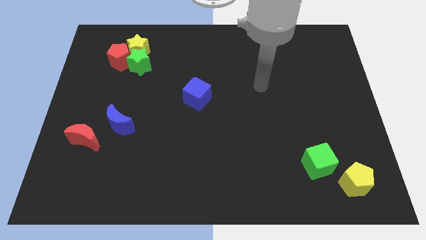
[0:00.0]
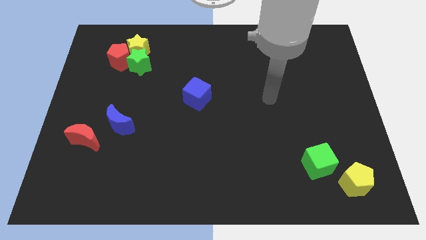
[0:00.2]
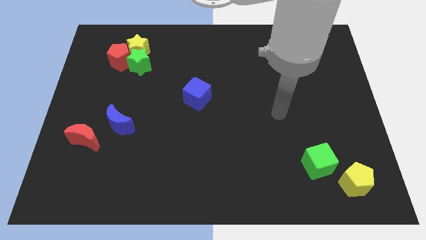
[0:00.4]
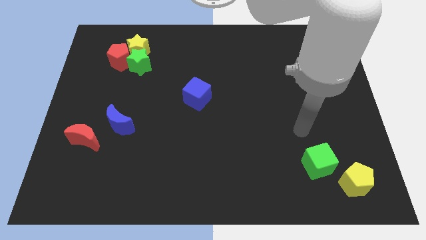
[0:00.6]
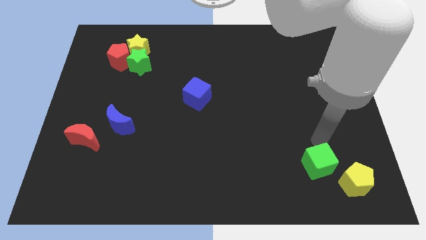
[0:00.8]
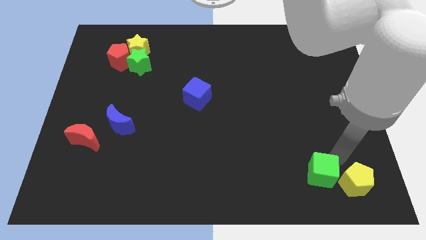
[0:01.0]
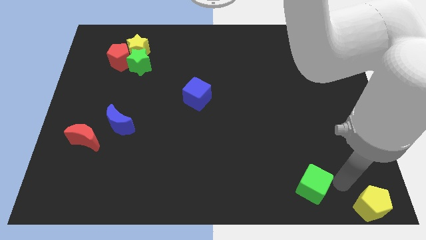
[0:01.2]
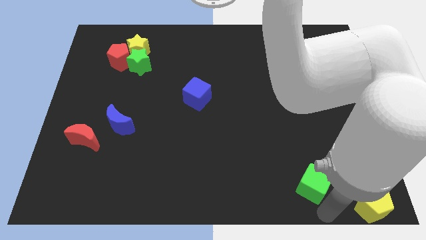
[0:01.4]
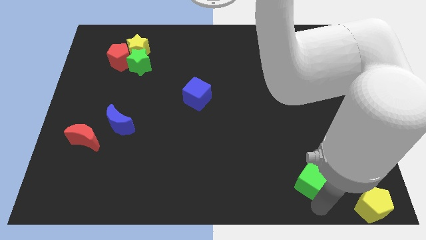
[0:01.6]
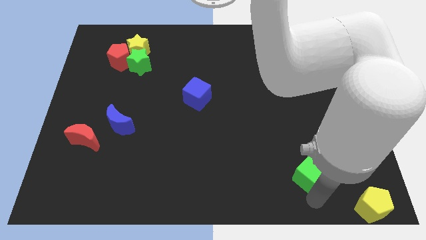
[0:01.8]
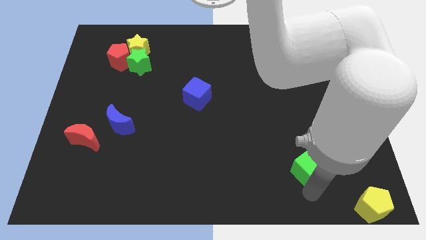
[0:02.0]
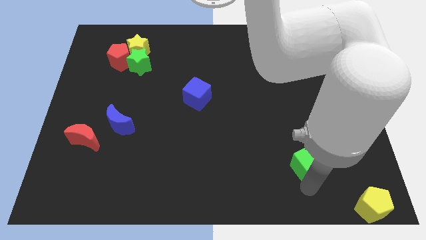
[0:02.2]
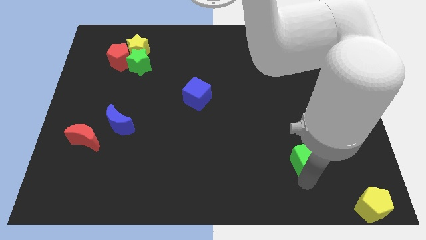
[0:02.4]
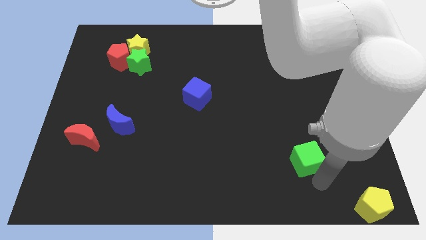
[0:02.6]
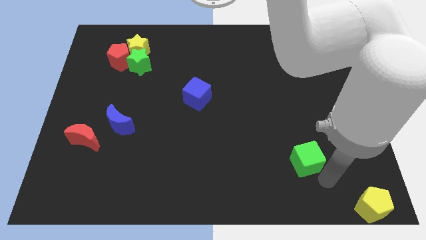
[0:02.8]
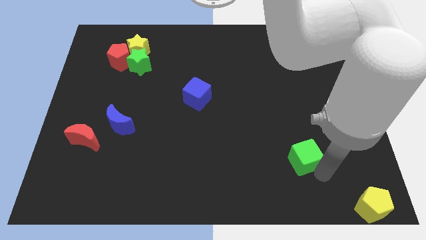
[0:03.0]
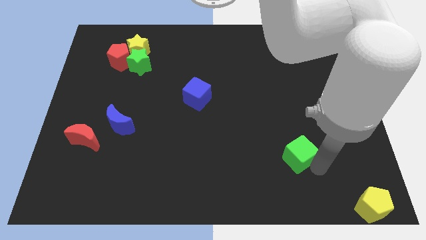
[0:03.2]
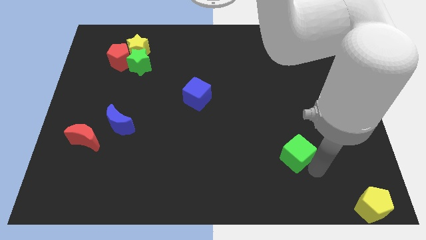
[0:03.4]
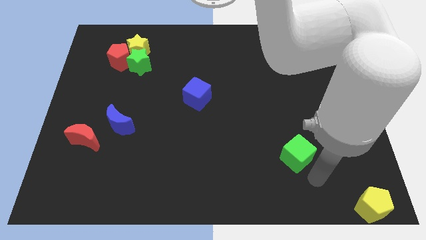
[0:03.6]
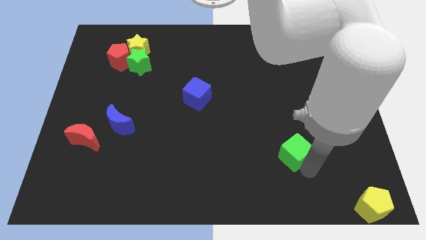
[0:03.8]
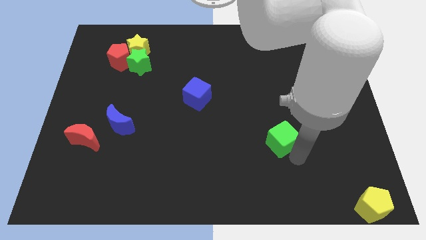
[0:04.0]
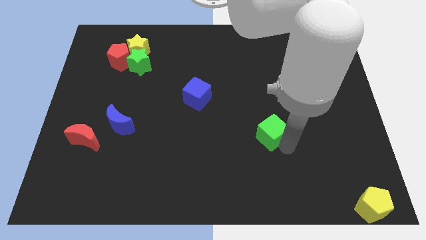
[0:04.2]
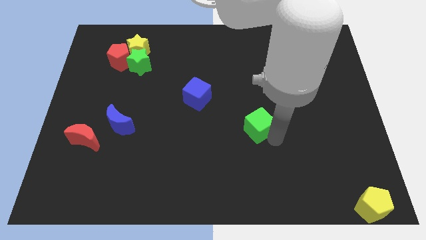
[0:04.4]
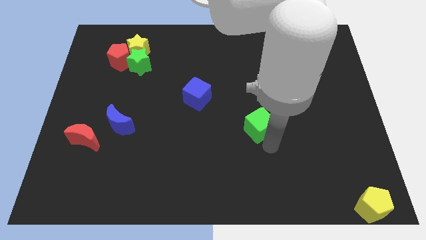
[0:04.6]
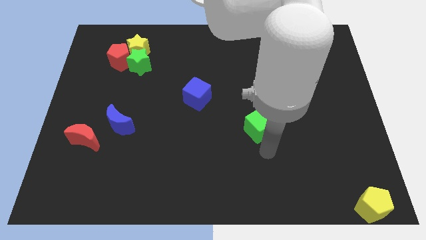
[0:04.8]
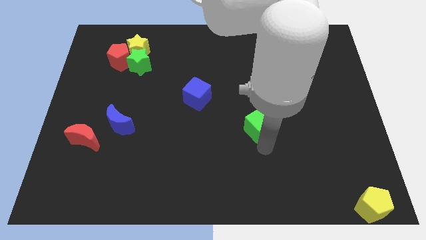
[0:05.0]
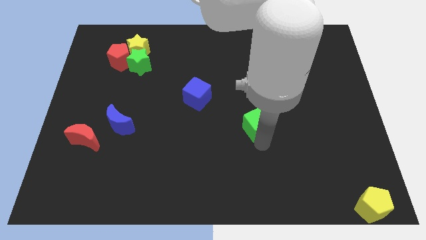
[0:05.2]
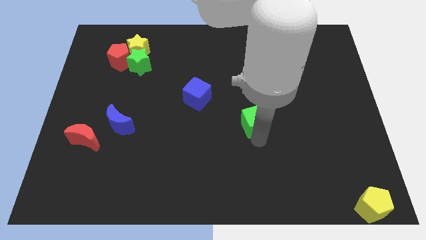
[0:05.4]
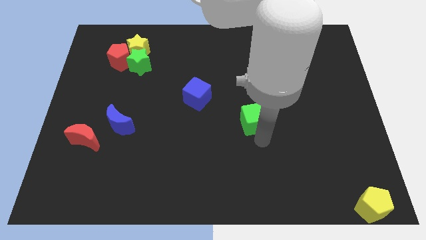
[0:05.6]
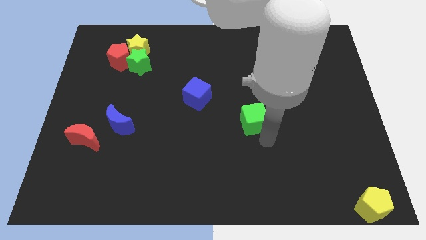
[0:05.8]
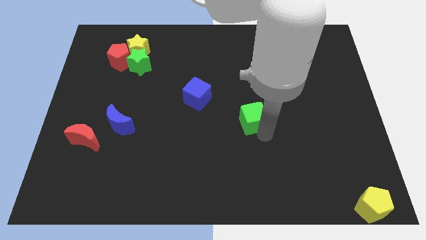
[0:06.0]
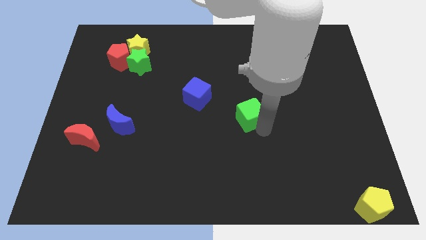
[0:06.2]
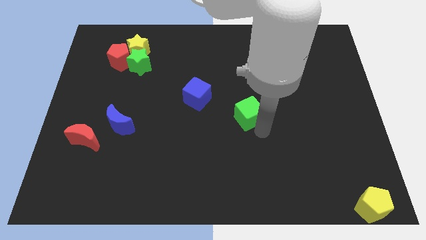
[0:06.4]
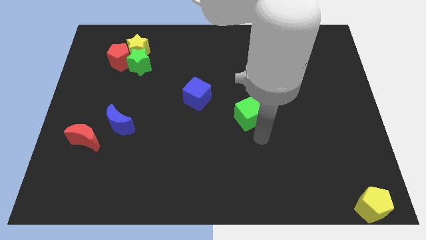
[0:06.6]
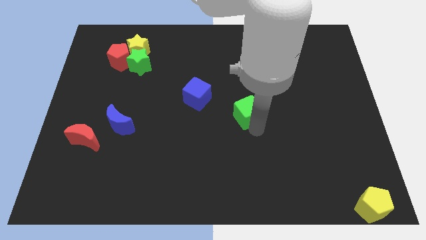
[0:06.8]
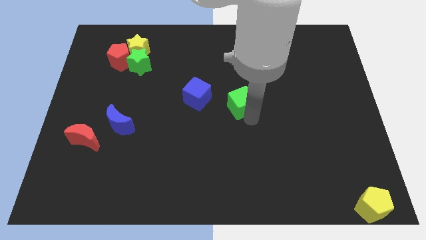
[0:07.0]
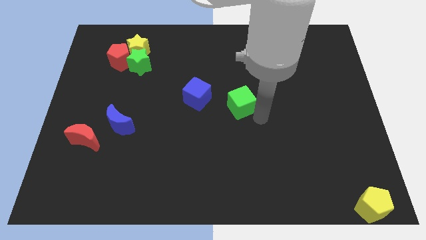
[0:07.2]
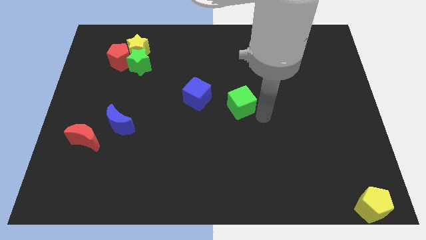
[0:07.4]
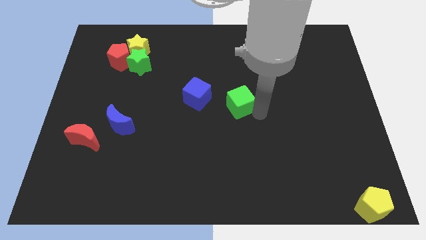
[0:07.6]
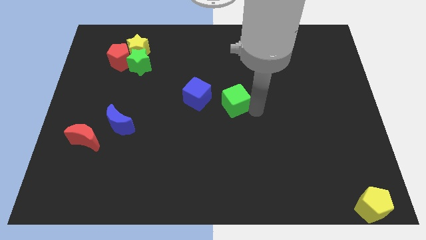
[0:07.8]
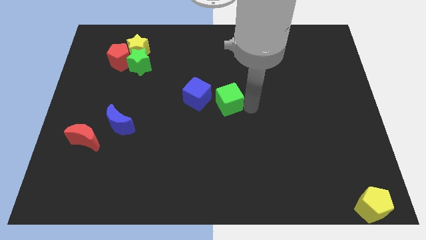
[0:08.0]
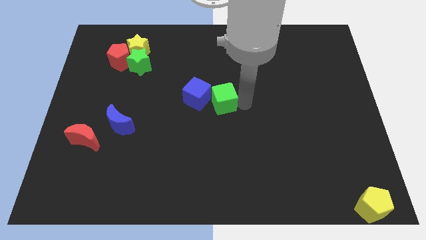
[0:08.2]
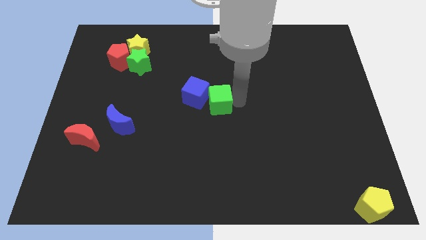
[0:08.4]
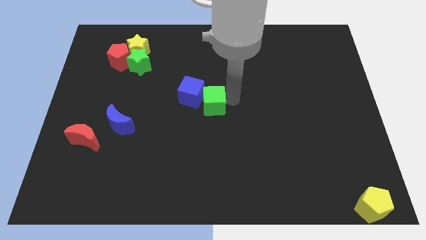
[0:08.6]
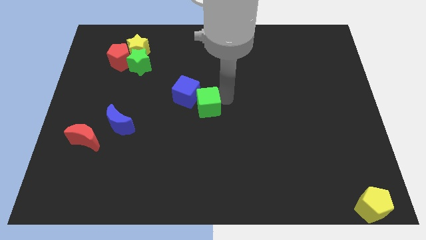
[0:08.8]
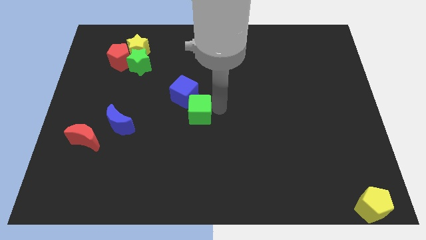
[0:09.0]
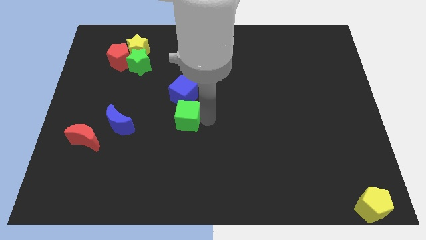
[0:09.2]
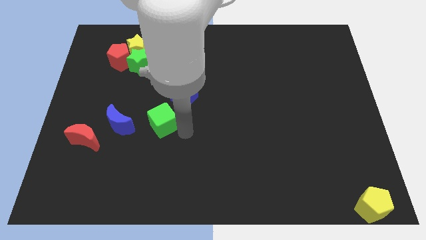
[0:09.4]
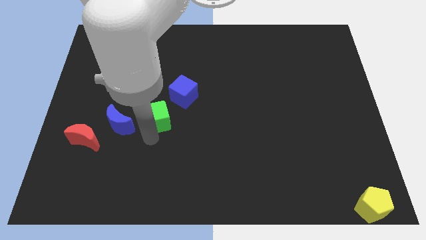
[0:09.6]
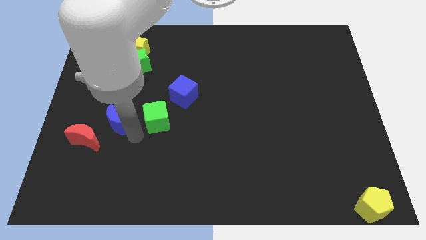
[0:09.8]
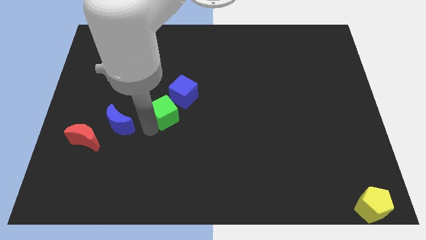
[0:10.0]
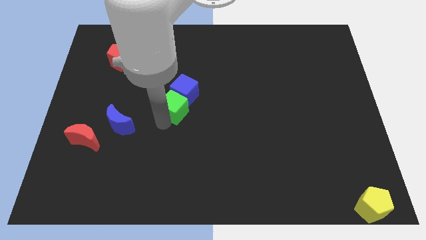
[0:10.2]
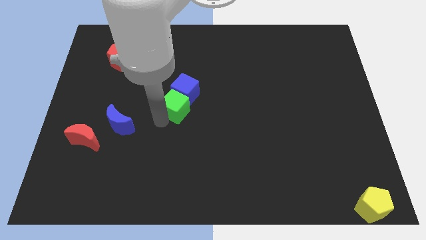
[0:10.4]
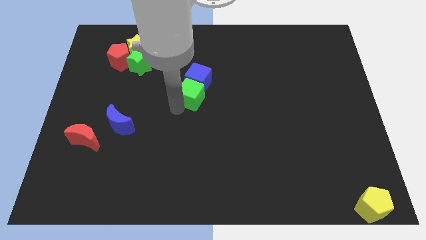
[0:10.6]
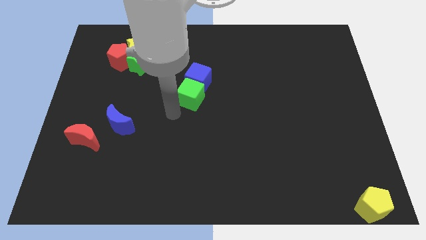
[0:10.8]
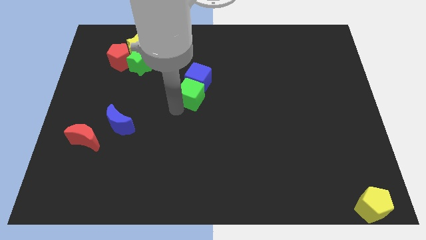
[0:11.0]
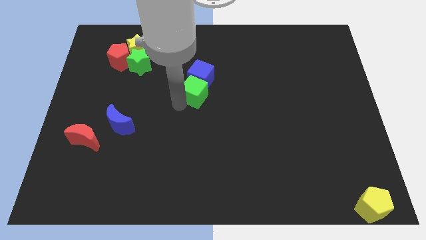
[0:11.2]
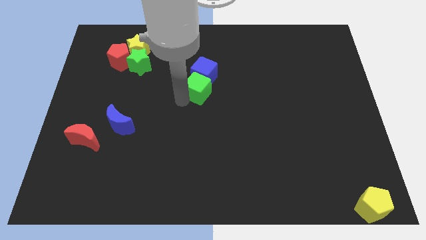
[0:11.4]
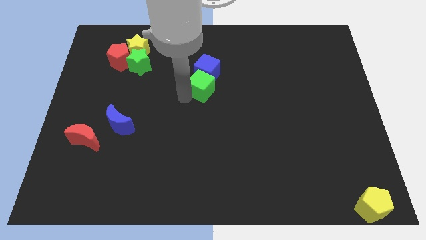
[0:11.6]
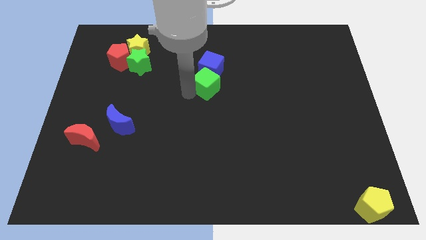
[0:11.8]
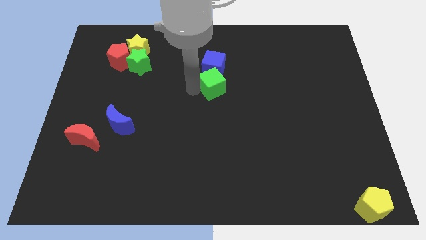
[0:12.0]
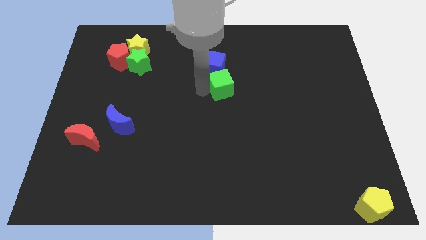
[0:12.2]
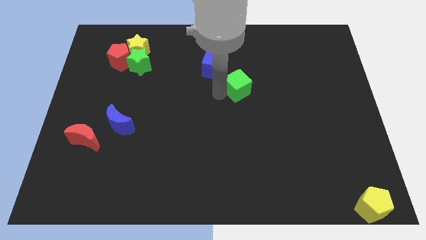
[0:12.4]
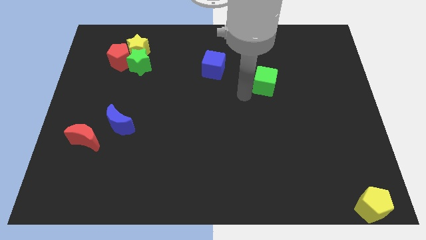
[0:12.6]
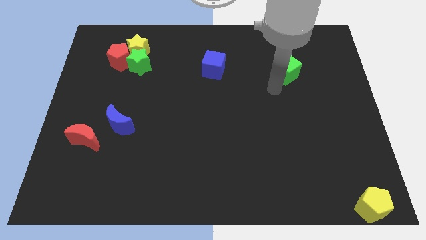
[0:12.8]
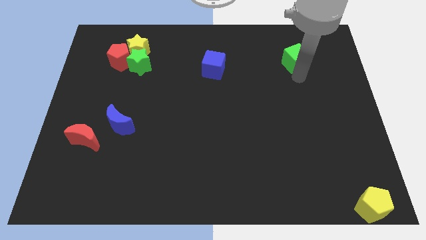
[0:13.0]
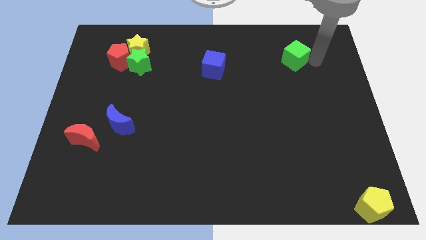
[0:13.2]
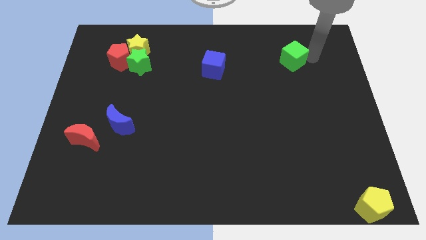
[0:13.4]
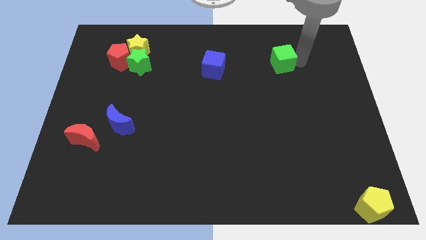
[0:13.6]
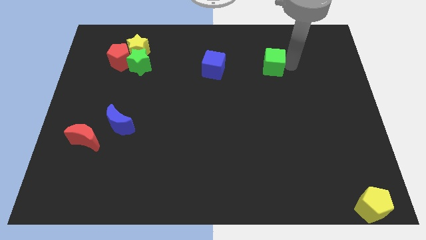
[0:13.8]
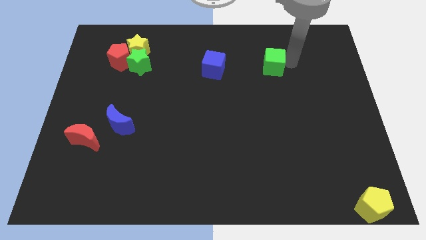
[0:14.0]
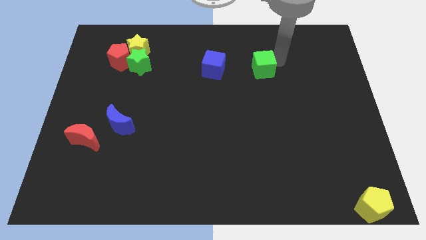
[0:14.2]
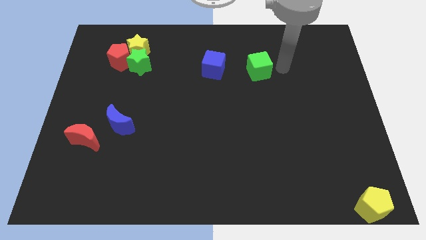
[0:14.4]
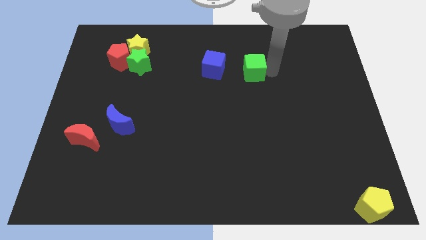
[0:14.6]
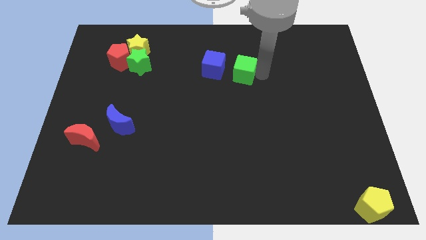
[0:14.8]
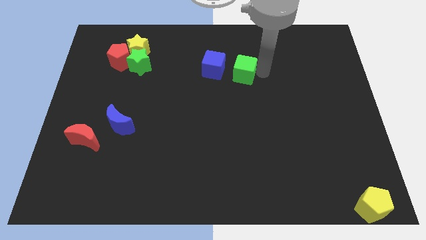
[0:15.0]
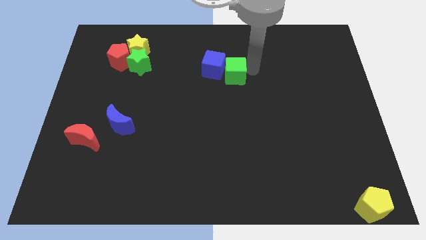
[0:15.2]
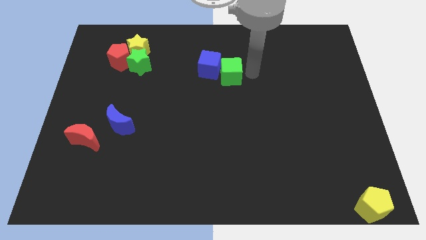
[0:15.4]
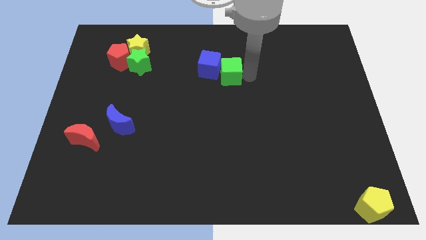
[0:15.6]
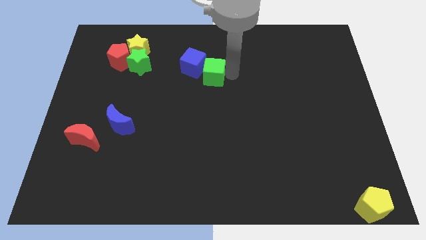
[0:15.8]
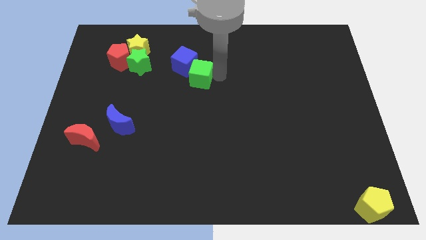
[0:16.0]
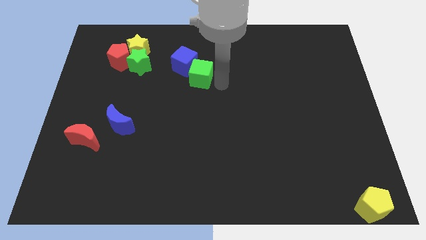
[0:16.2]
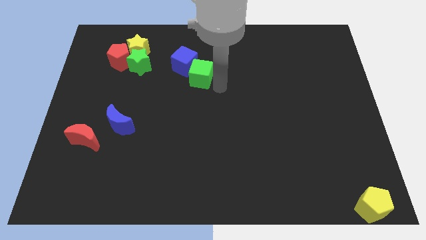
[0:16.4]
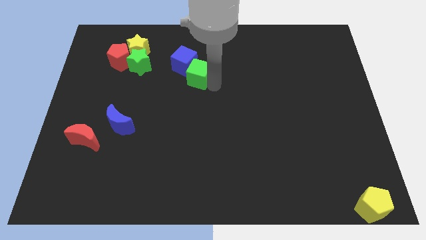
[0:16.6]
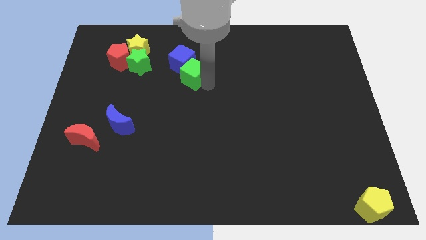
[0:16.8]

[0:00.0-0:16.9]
put the green cube right of the green star
